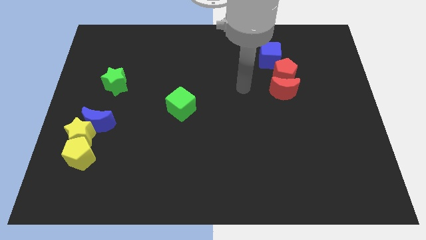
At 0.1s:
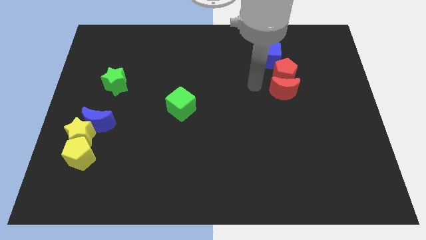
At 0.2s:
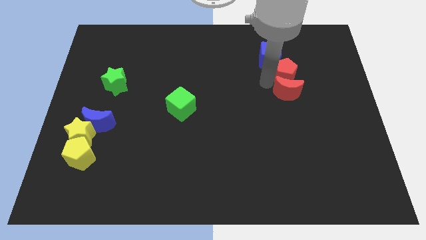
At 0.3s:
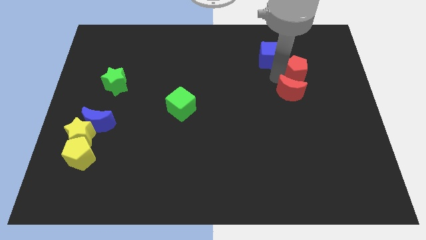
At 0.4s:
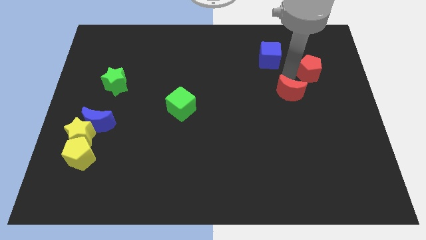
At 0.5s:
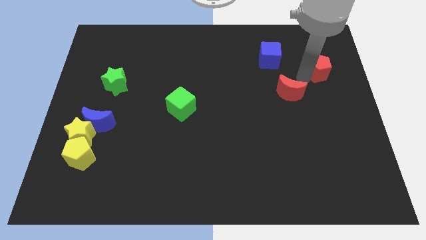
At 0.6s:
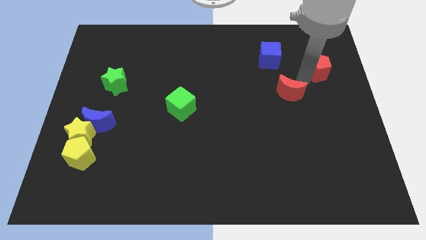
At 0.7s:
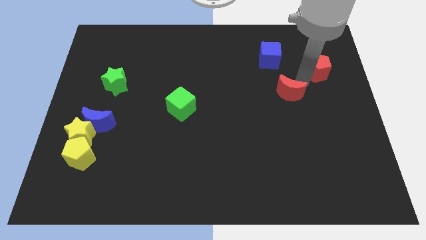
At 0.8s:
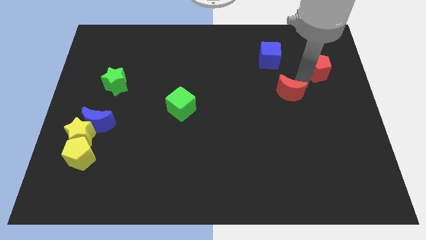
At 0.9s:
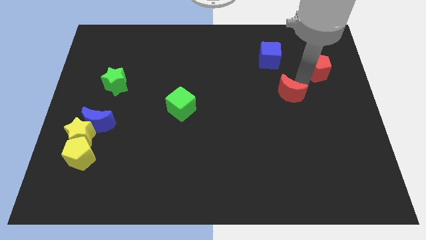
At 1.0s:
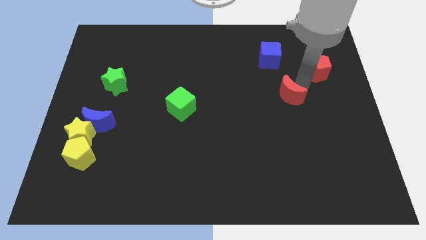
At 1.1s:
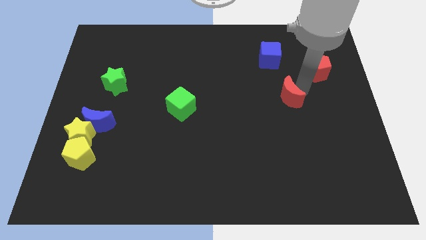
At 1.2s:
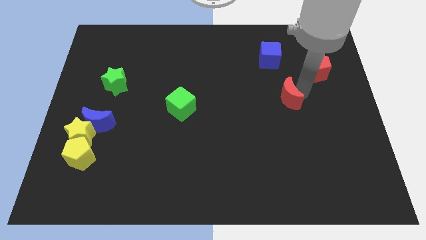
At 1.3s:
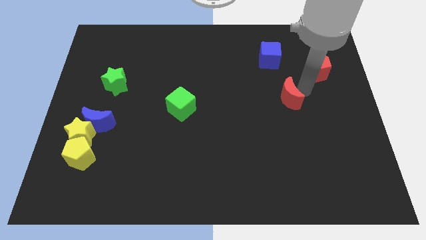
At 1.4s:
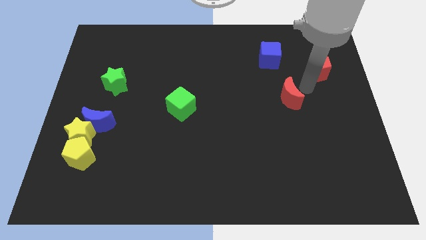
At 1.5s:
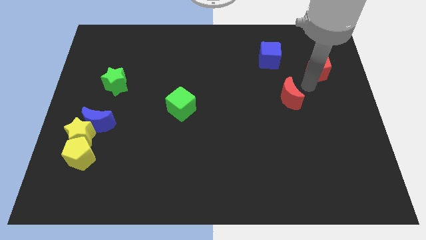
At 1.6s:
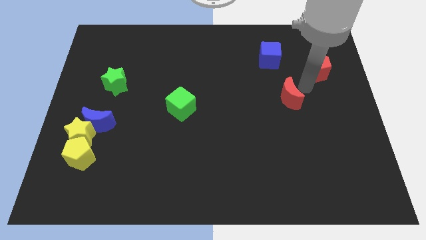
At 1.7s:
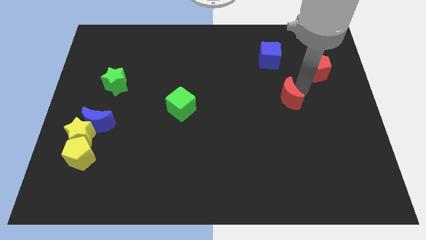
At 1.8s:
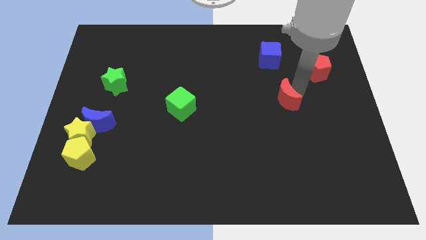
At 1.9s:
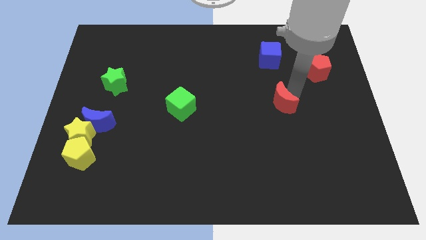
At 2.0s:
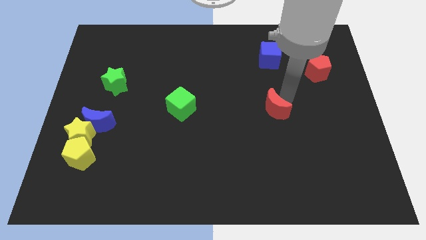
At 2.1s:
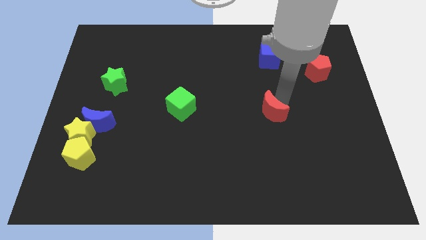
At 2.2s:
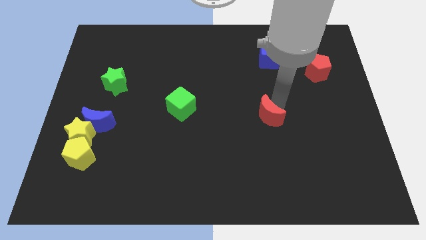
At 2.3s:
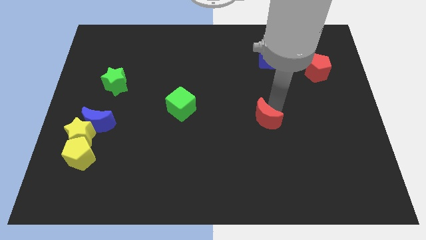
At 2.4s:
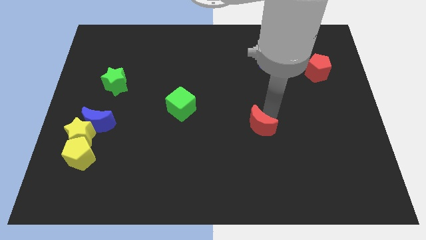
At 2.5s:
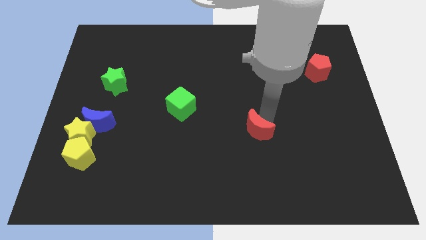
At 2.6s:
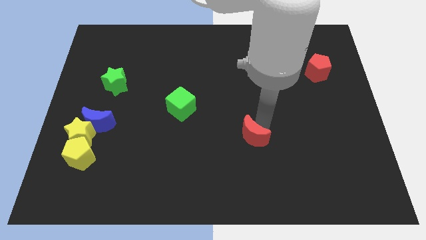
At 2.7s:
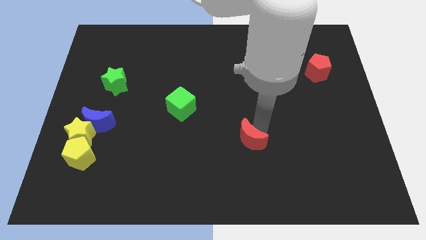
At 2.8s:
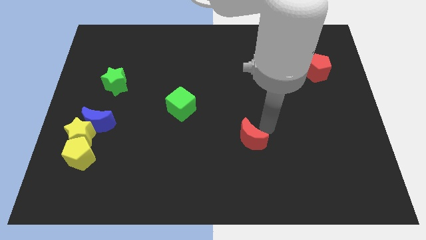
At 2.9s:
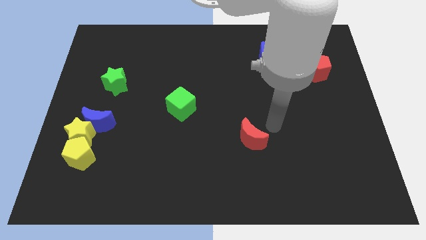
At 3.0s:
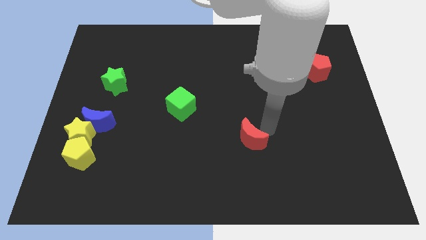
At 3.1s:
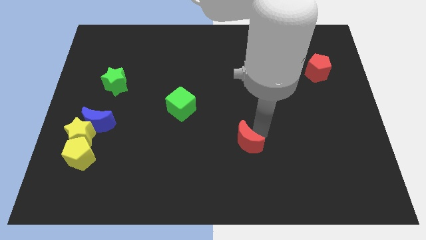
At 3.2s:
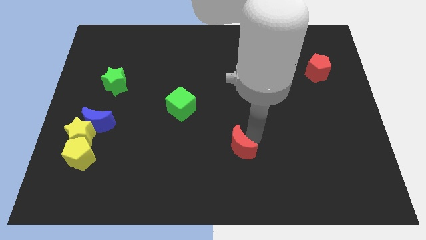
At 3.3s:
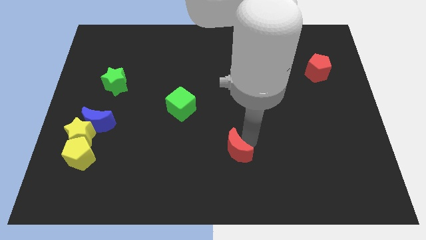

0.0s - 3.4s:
push the red moon downwards and then left

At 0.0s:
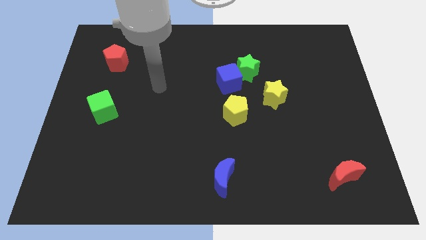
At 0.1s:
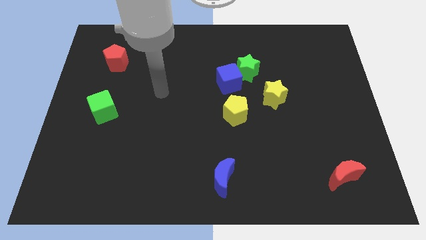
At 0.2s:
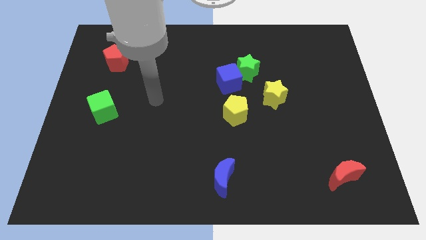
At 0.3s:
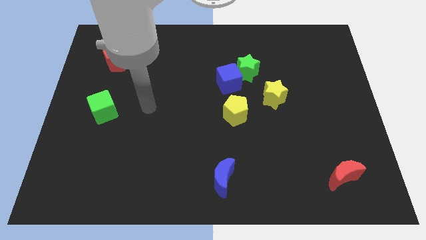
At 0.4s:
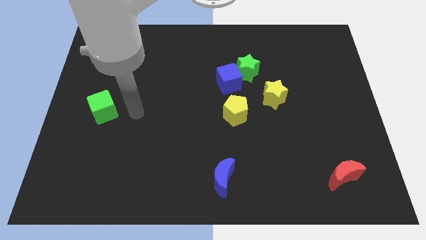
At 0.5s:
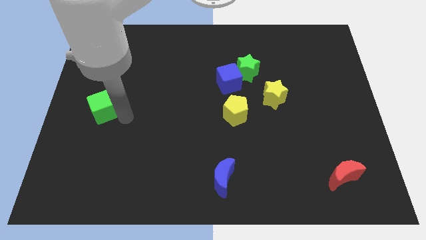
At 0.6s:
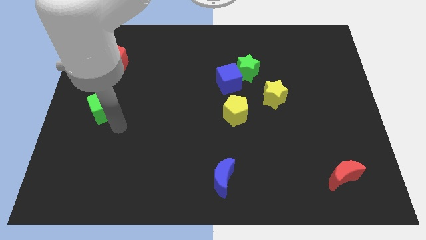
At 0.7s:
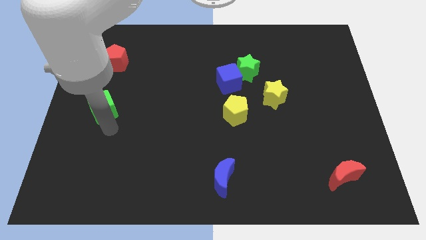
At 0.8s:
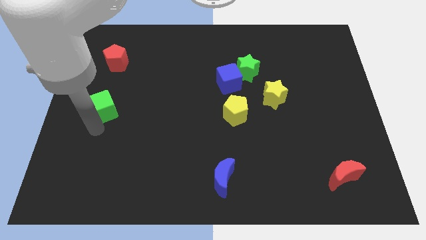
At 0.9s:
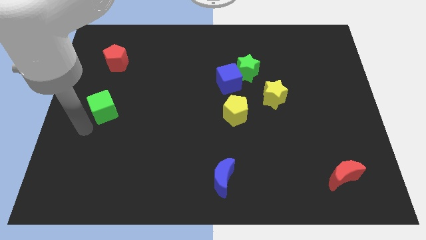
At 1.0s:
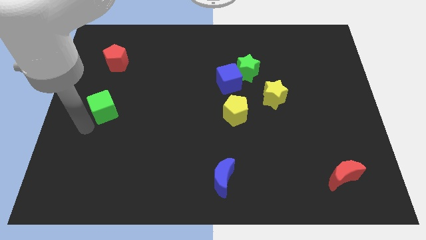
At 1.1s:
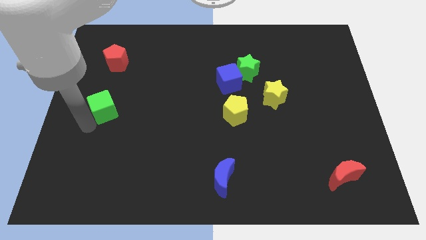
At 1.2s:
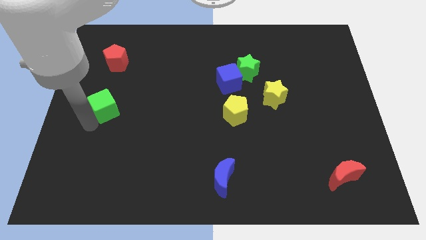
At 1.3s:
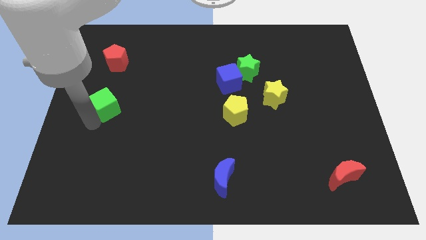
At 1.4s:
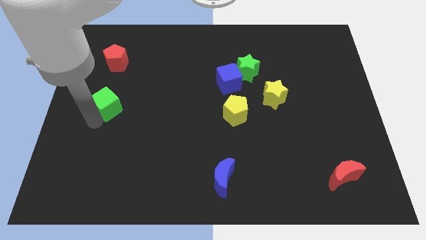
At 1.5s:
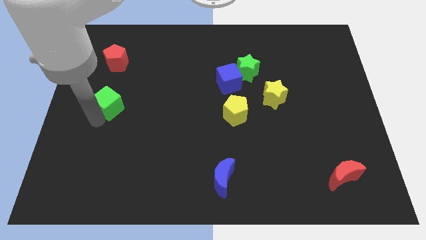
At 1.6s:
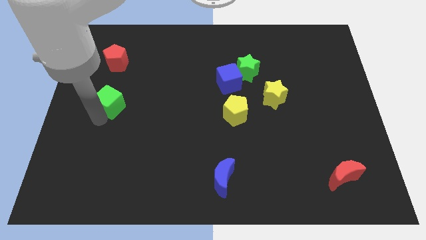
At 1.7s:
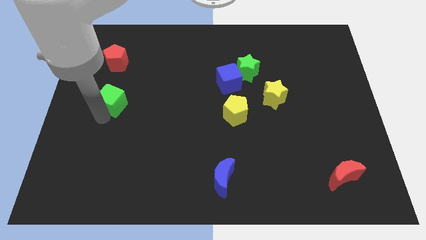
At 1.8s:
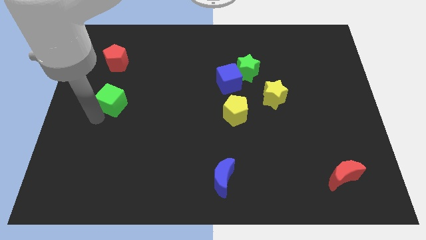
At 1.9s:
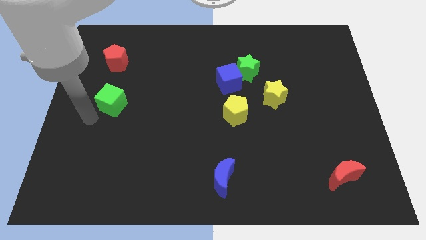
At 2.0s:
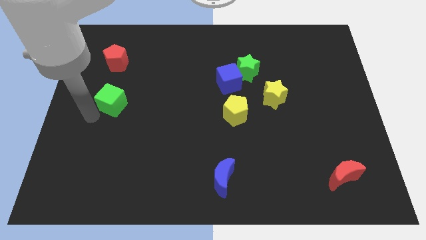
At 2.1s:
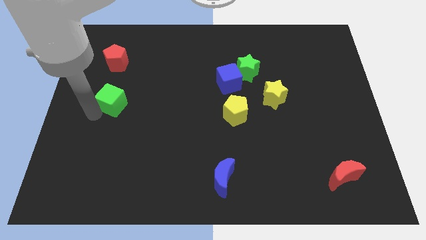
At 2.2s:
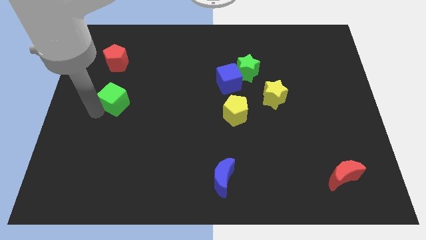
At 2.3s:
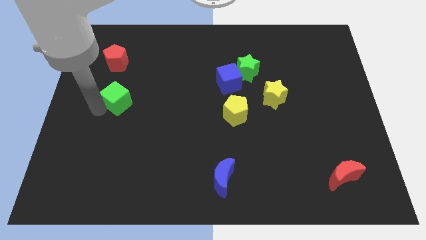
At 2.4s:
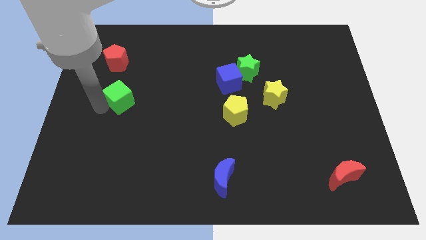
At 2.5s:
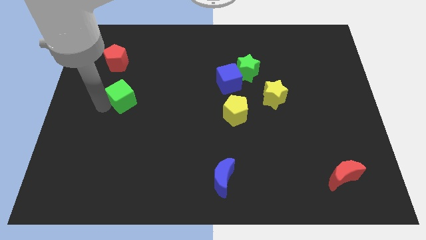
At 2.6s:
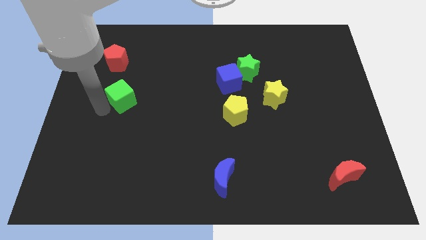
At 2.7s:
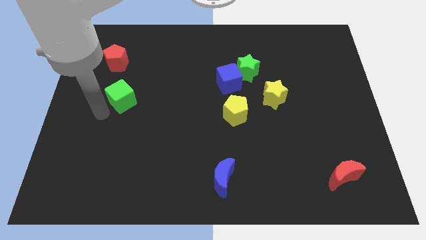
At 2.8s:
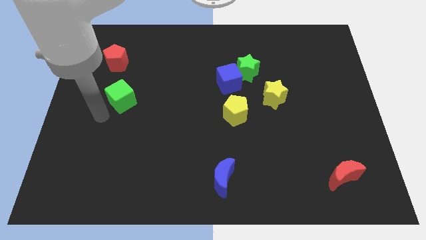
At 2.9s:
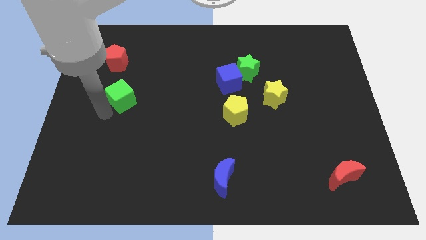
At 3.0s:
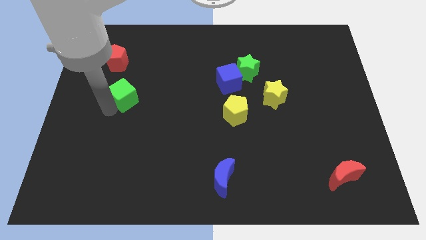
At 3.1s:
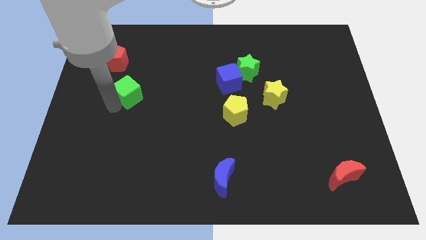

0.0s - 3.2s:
slightly slide the green cube diagonally up and right

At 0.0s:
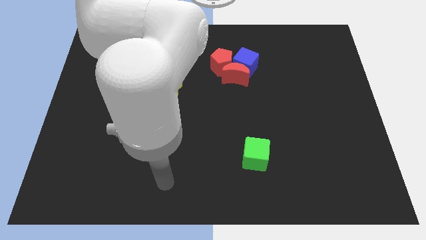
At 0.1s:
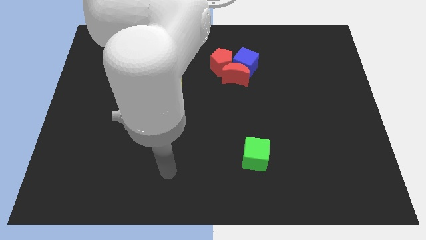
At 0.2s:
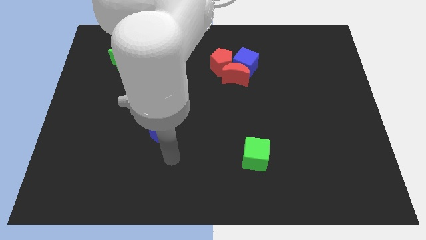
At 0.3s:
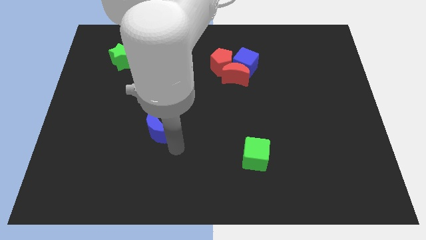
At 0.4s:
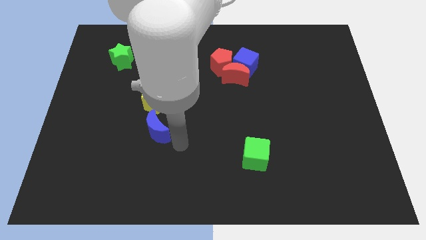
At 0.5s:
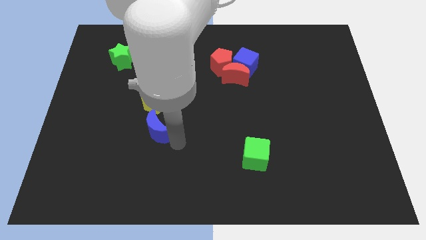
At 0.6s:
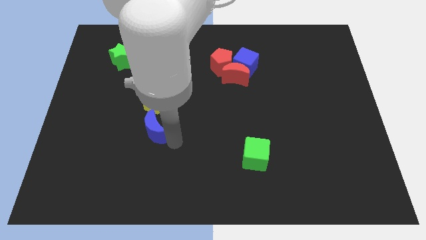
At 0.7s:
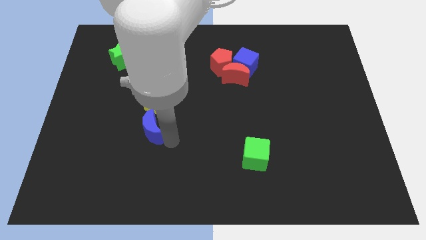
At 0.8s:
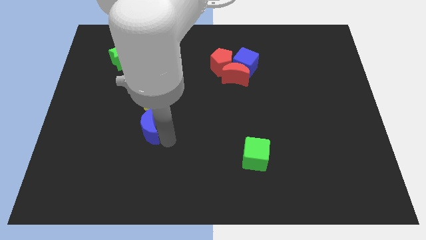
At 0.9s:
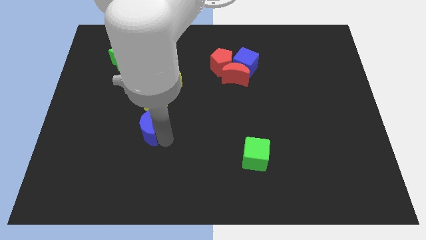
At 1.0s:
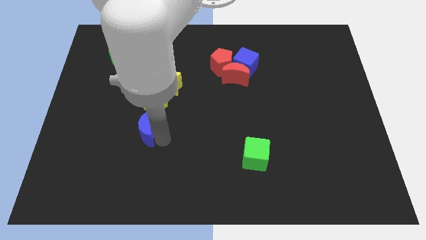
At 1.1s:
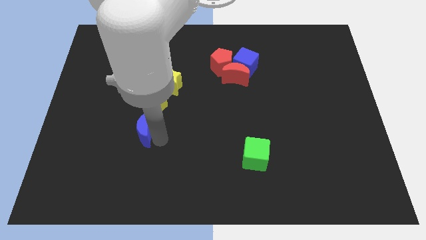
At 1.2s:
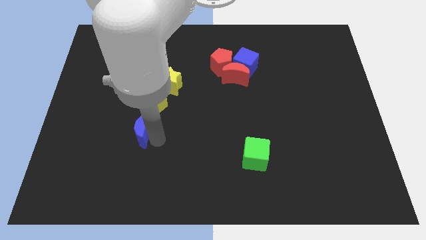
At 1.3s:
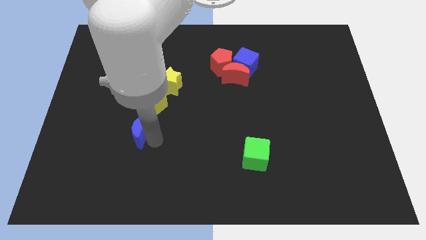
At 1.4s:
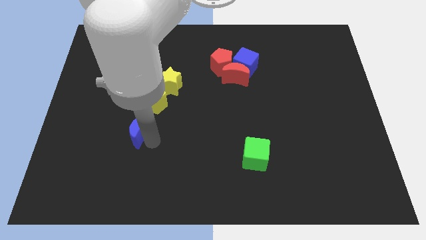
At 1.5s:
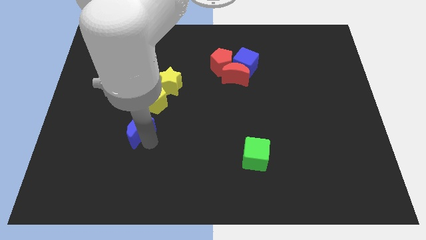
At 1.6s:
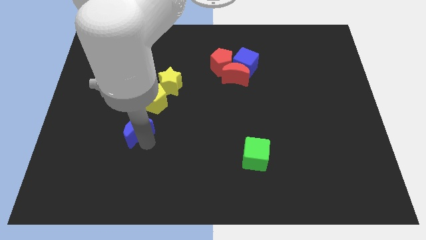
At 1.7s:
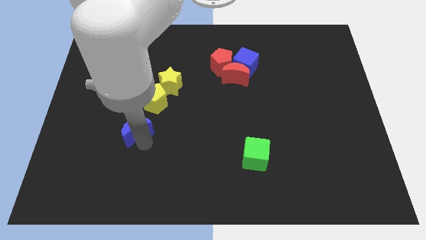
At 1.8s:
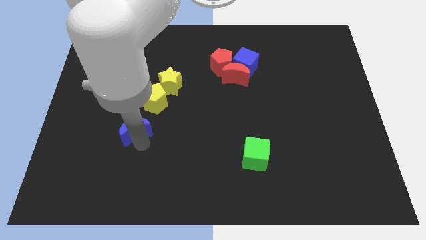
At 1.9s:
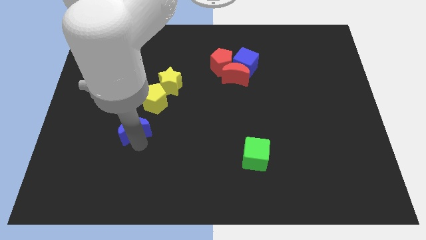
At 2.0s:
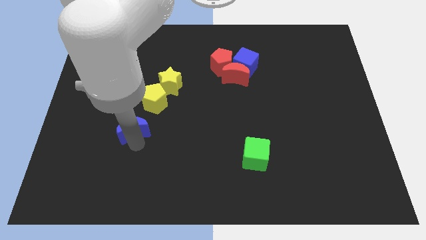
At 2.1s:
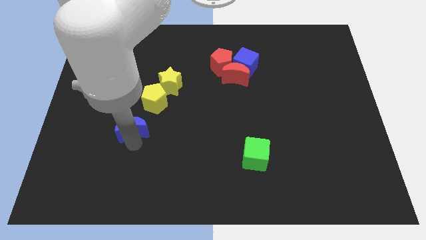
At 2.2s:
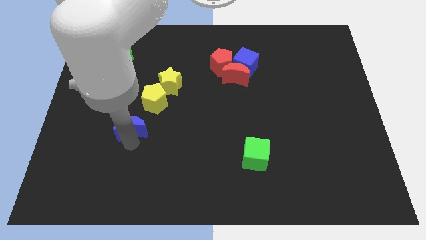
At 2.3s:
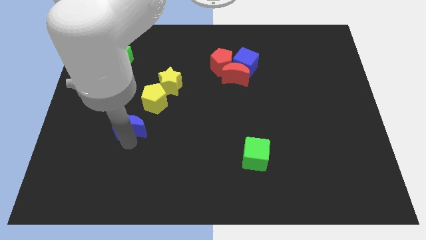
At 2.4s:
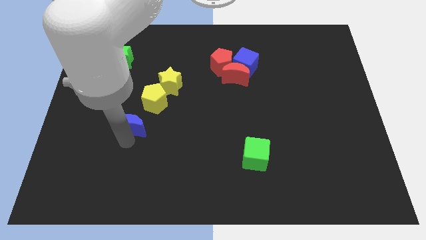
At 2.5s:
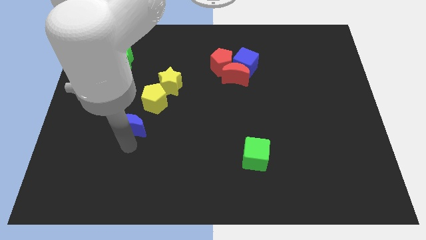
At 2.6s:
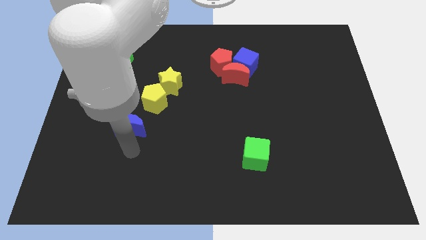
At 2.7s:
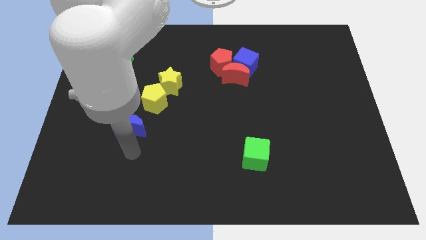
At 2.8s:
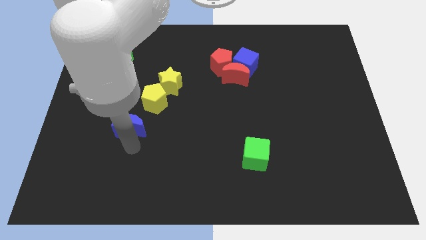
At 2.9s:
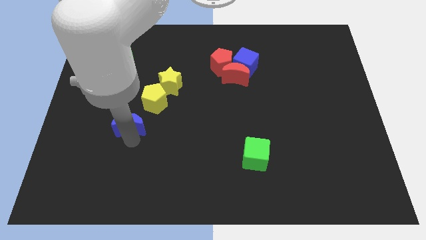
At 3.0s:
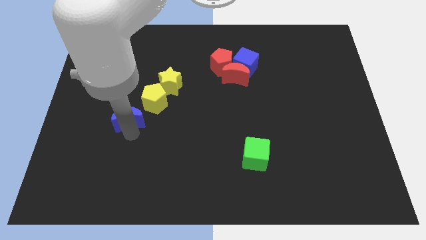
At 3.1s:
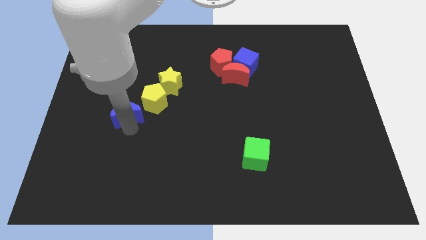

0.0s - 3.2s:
slightly move the blue moon upwards and to the left diagonally
